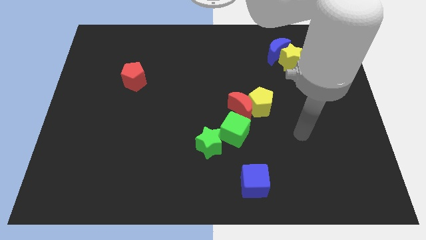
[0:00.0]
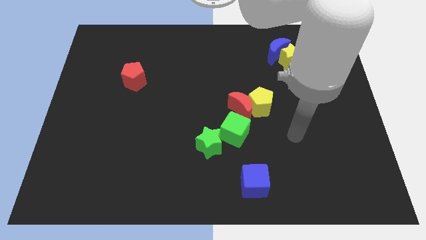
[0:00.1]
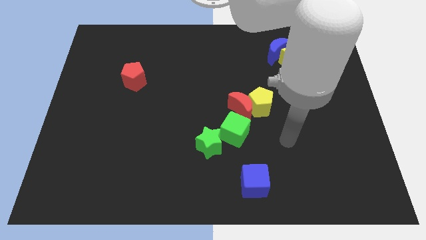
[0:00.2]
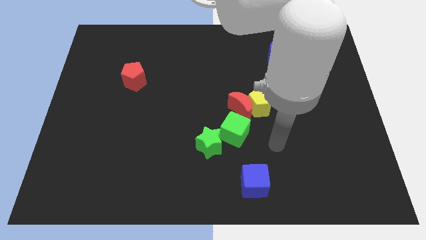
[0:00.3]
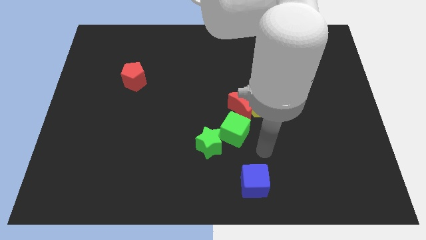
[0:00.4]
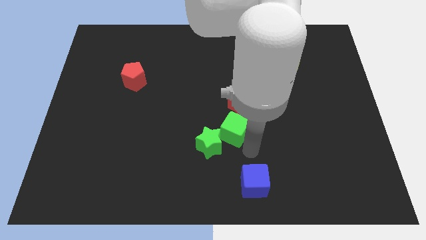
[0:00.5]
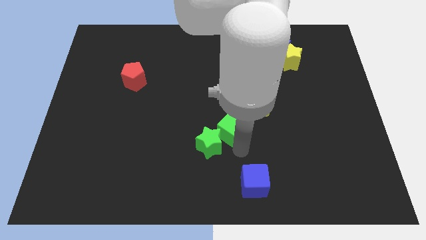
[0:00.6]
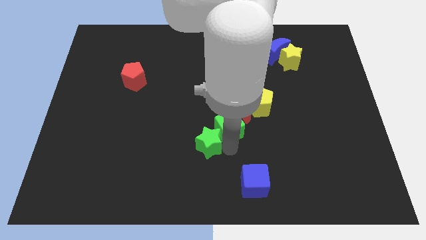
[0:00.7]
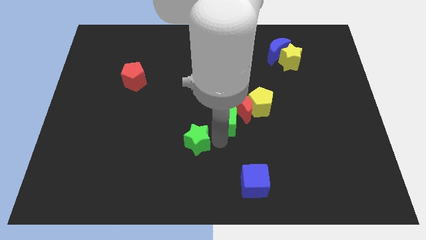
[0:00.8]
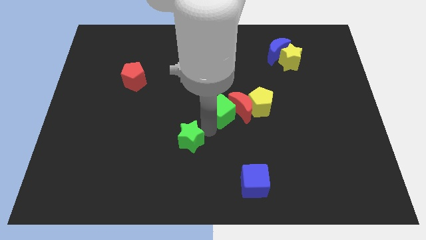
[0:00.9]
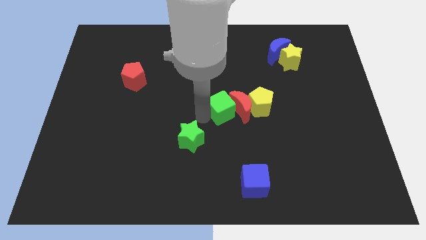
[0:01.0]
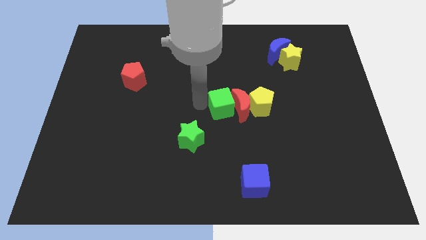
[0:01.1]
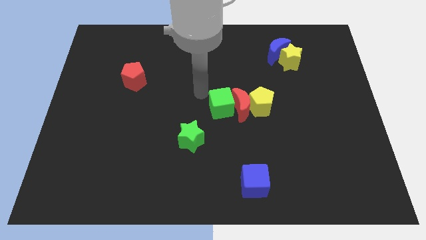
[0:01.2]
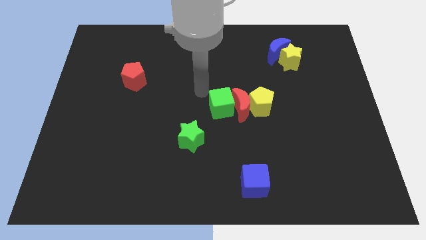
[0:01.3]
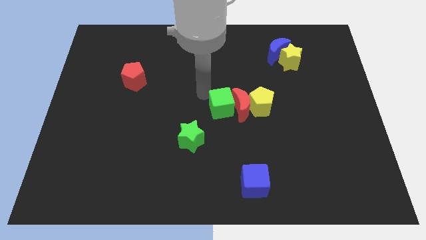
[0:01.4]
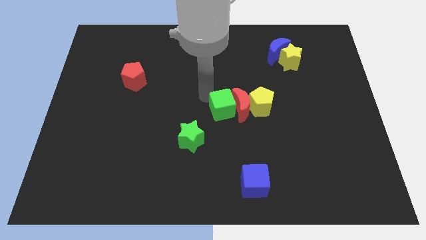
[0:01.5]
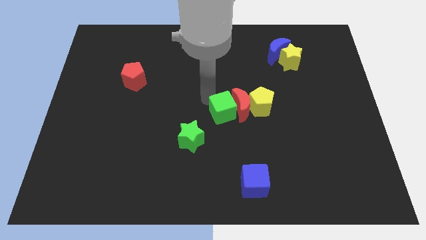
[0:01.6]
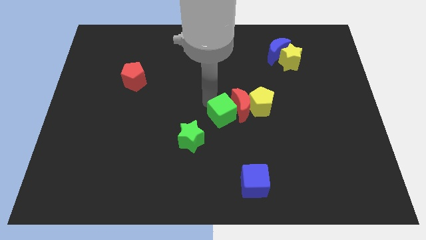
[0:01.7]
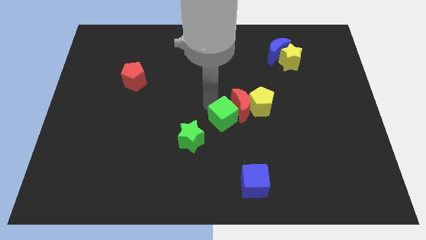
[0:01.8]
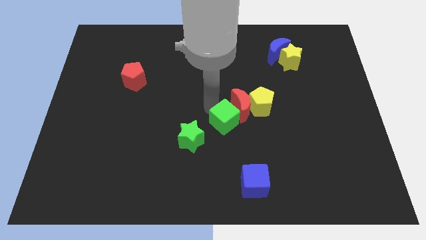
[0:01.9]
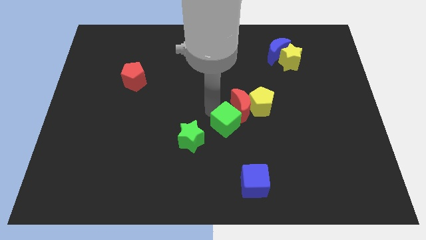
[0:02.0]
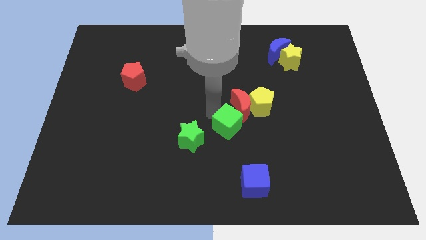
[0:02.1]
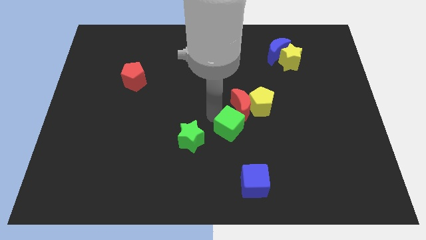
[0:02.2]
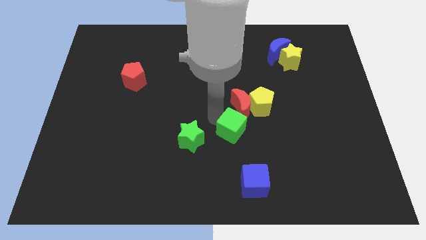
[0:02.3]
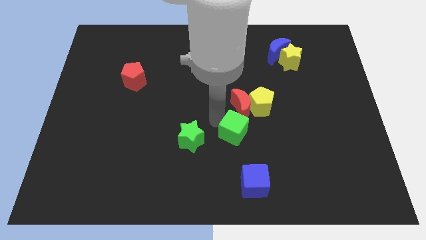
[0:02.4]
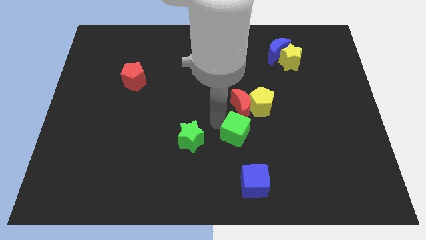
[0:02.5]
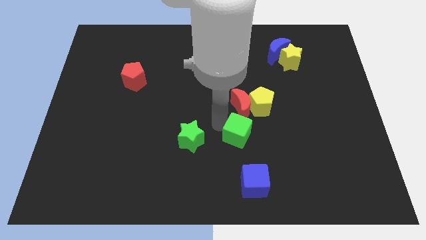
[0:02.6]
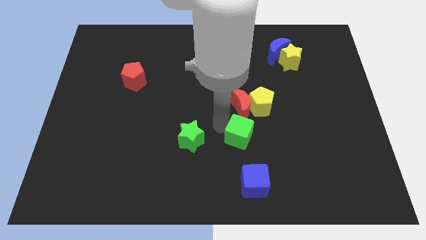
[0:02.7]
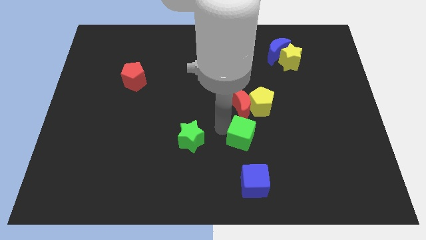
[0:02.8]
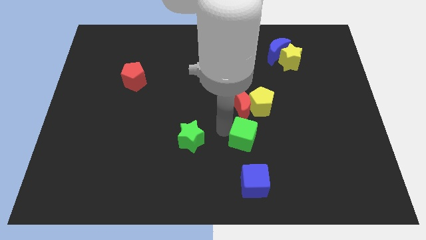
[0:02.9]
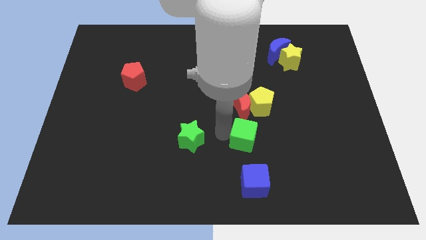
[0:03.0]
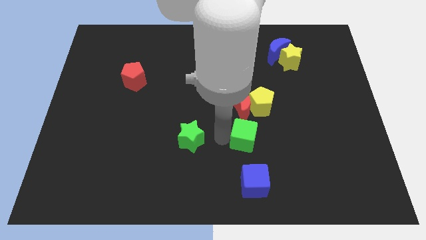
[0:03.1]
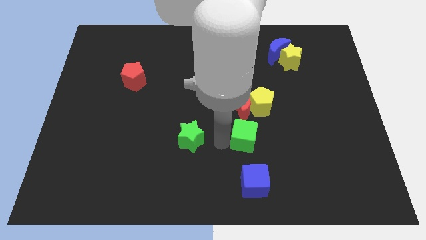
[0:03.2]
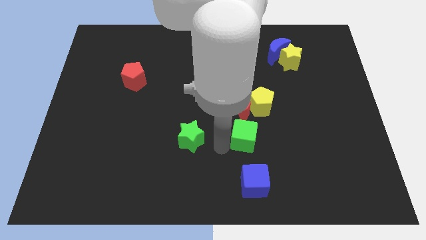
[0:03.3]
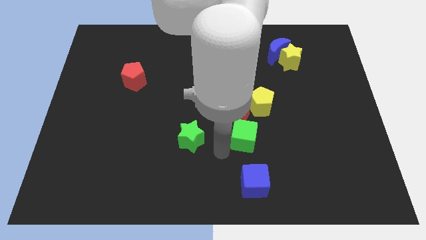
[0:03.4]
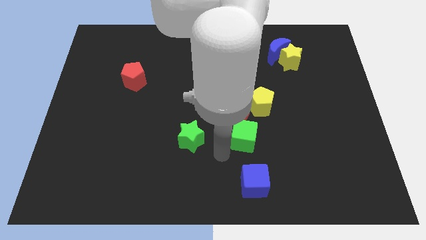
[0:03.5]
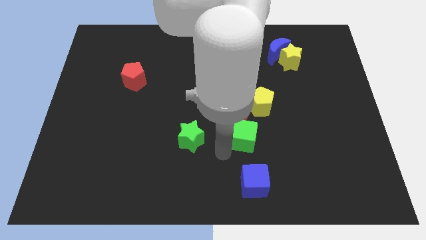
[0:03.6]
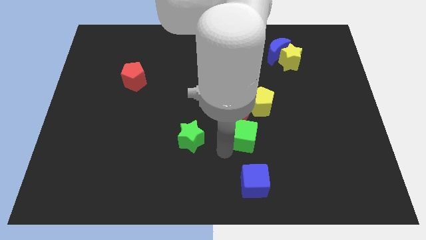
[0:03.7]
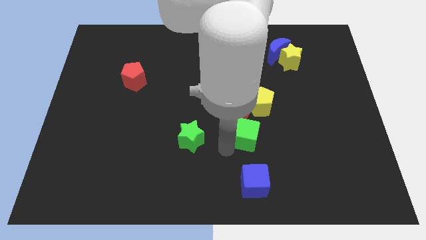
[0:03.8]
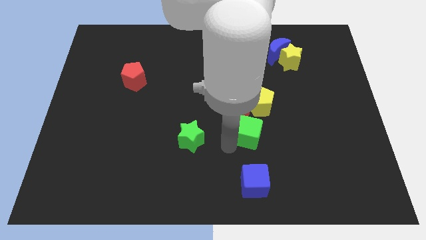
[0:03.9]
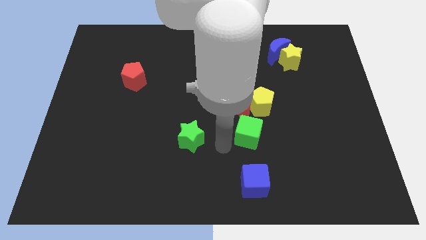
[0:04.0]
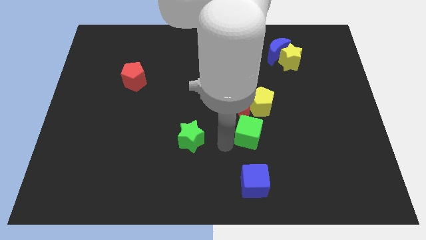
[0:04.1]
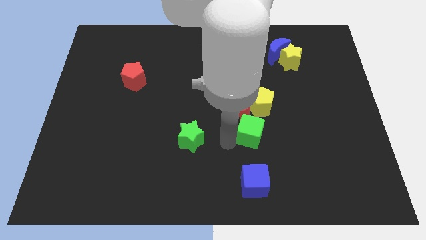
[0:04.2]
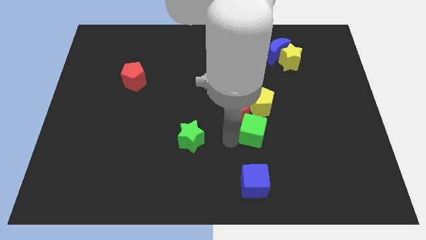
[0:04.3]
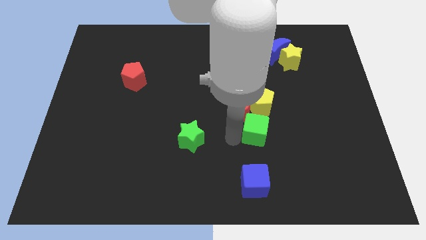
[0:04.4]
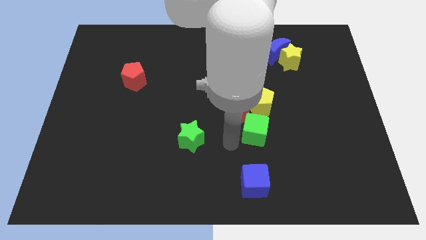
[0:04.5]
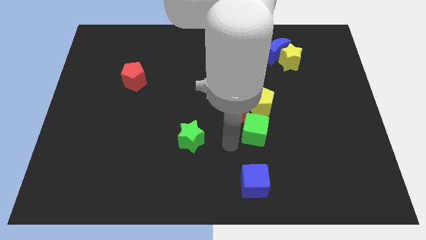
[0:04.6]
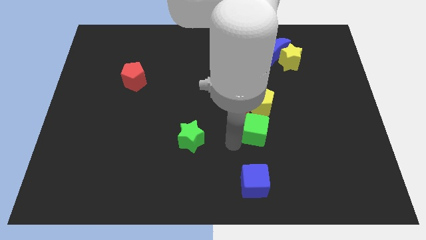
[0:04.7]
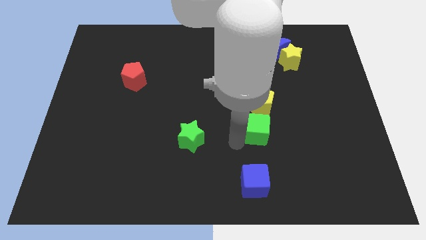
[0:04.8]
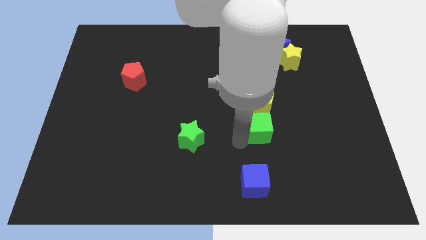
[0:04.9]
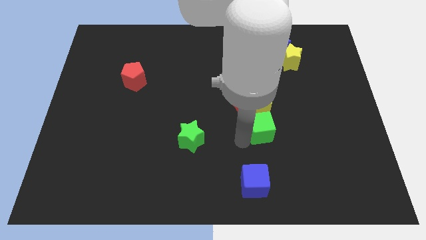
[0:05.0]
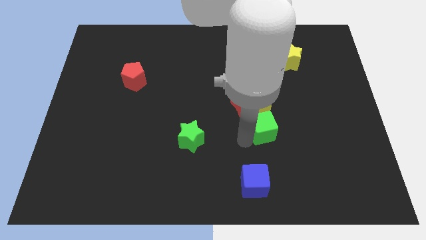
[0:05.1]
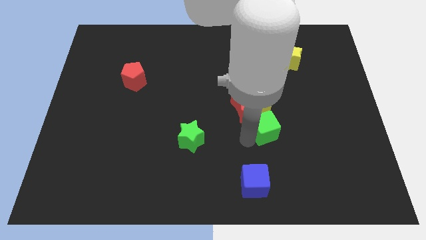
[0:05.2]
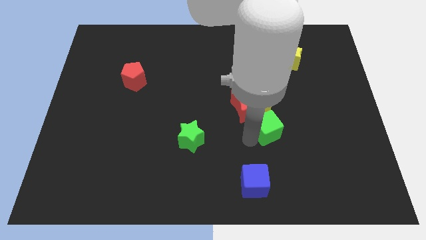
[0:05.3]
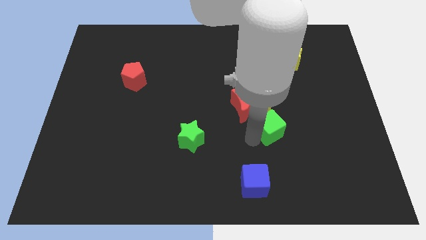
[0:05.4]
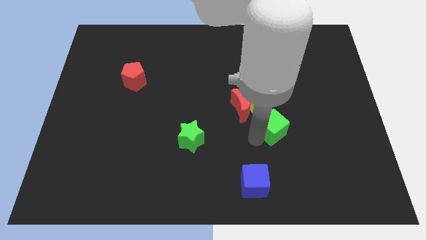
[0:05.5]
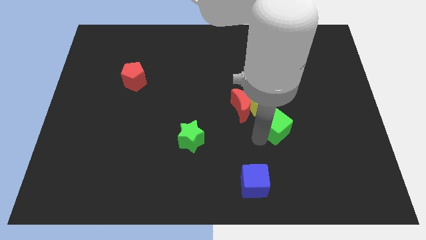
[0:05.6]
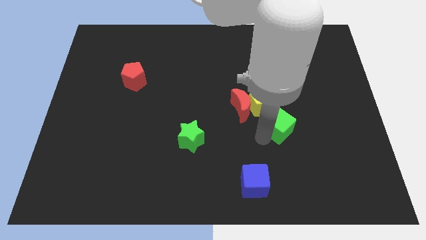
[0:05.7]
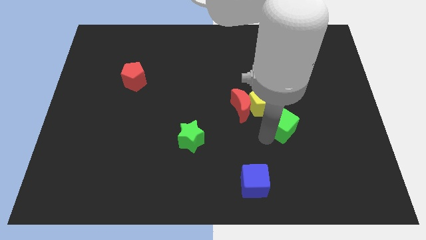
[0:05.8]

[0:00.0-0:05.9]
slightly move the green cube upwards and to the right diagonally

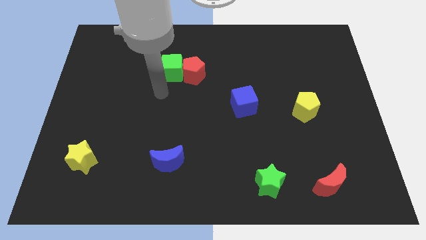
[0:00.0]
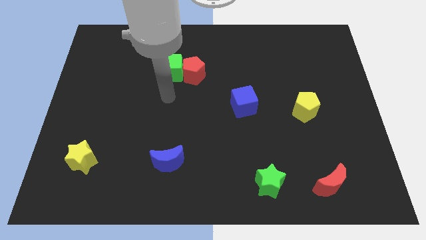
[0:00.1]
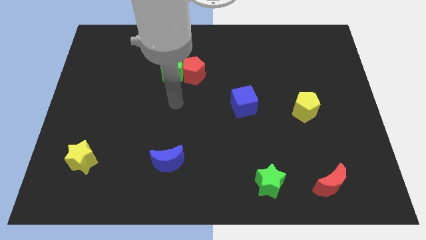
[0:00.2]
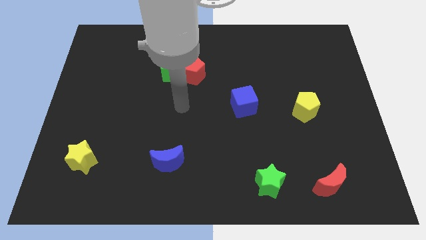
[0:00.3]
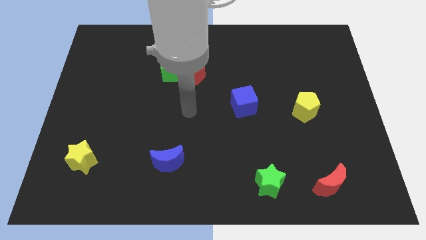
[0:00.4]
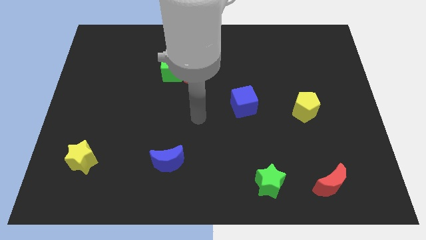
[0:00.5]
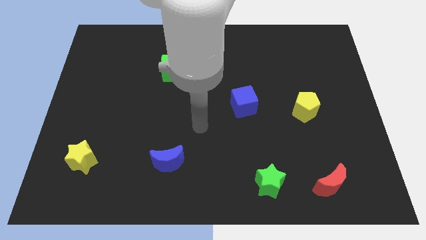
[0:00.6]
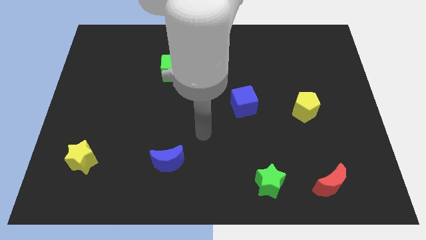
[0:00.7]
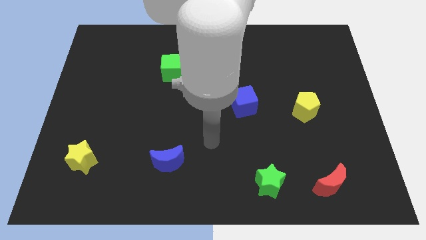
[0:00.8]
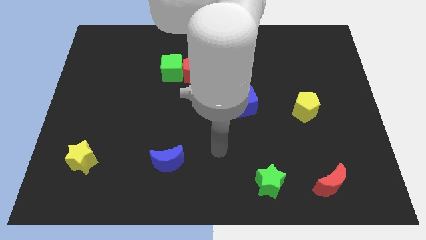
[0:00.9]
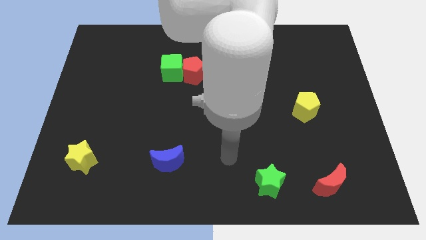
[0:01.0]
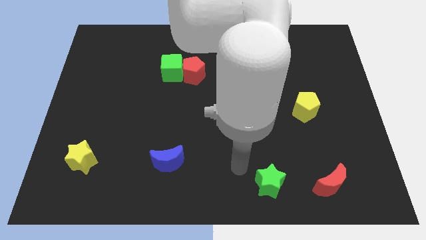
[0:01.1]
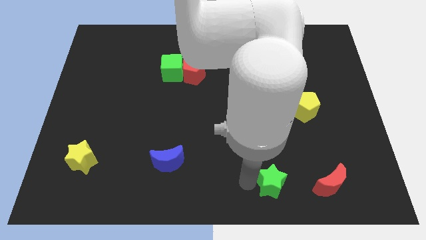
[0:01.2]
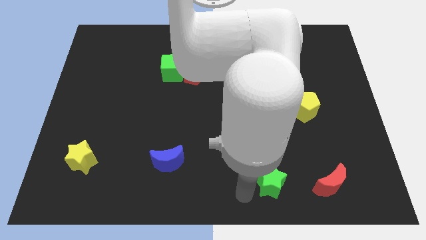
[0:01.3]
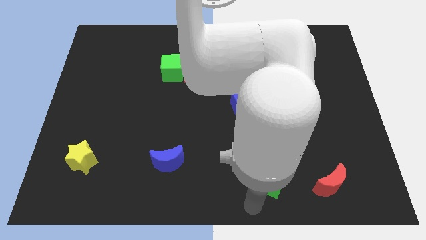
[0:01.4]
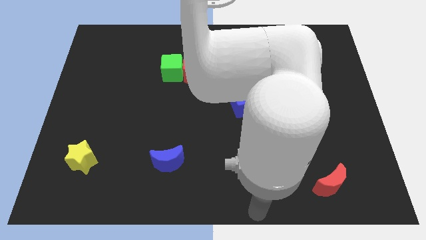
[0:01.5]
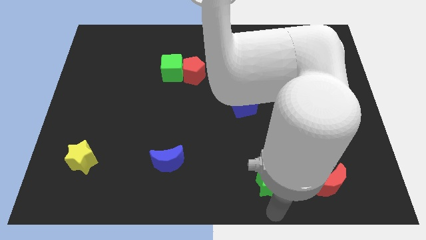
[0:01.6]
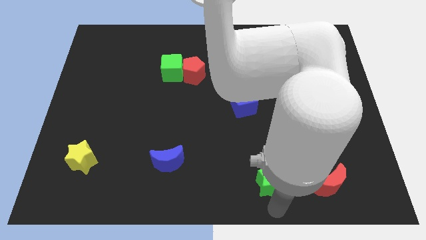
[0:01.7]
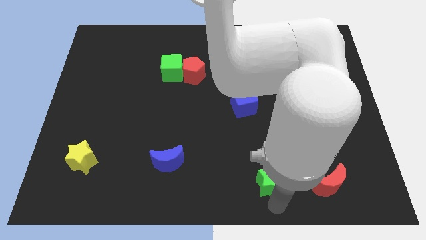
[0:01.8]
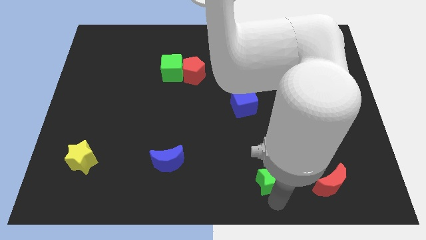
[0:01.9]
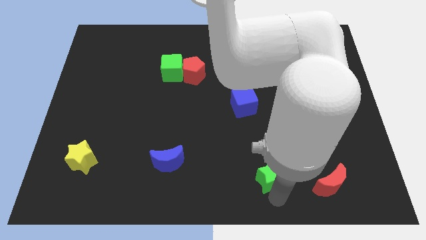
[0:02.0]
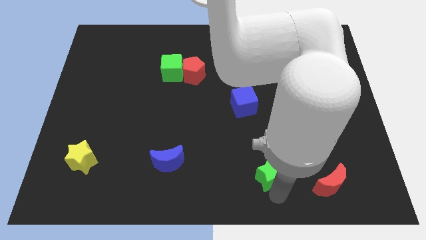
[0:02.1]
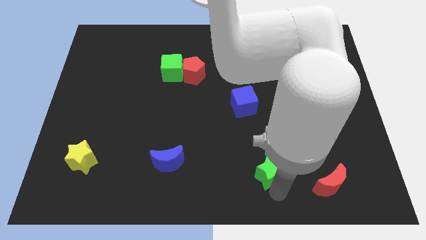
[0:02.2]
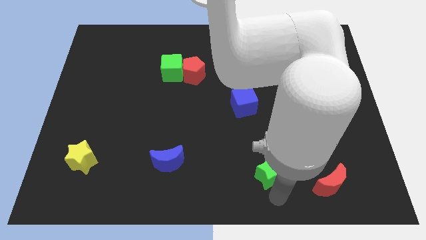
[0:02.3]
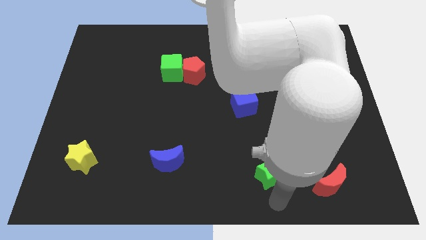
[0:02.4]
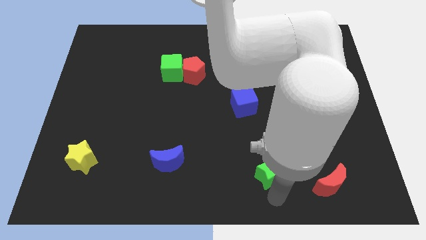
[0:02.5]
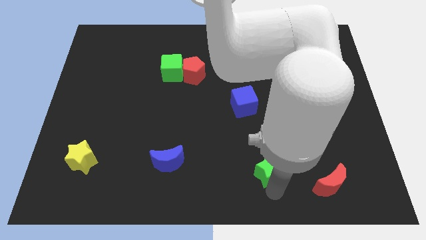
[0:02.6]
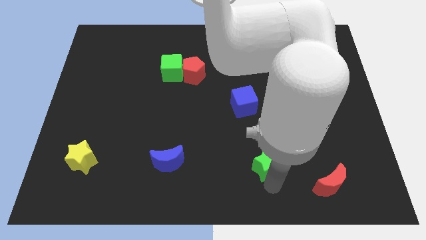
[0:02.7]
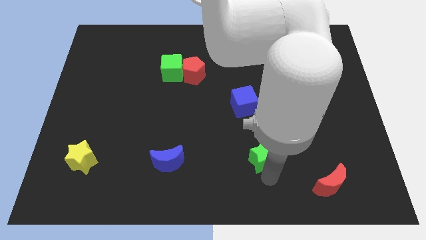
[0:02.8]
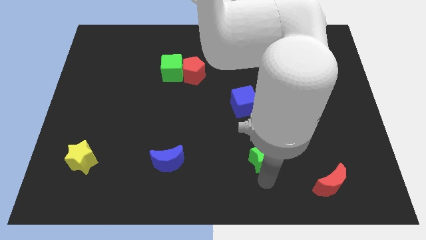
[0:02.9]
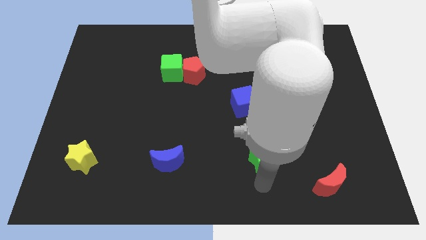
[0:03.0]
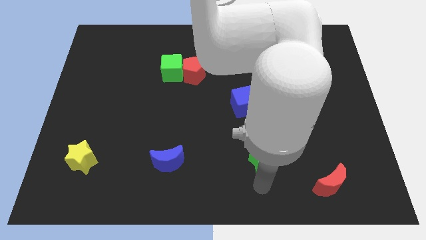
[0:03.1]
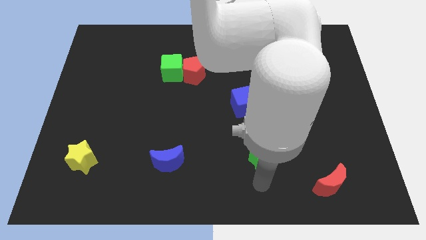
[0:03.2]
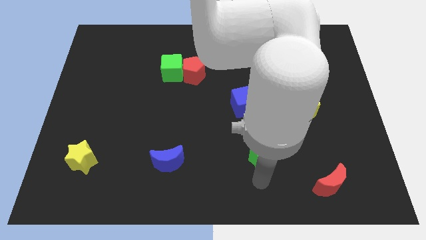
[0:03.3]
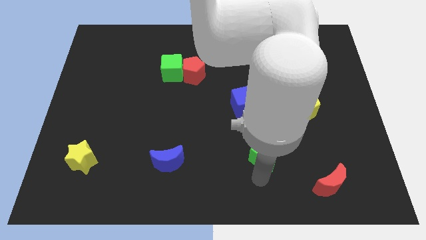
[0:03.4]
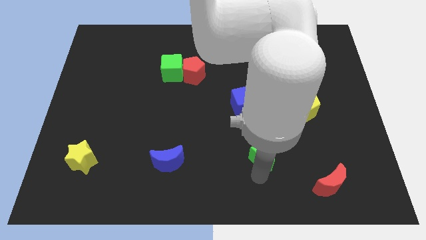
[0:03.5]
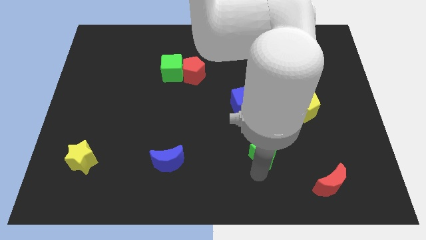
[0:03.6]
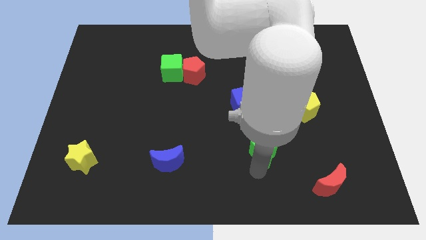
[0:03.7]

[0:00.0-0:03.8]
move the green star upwards slightly
